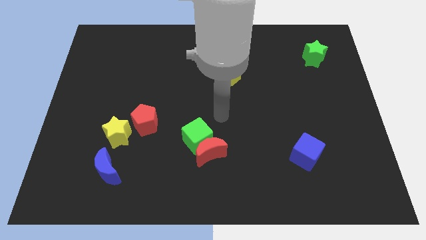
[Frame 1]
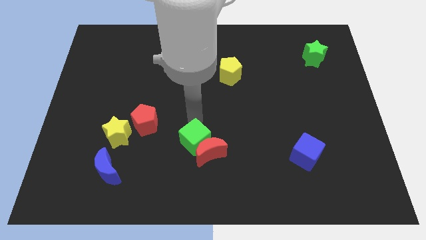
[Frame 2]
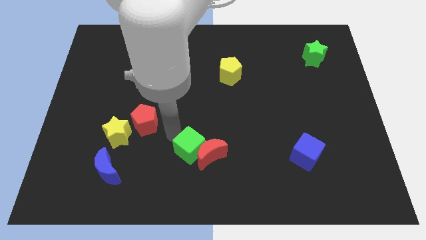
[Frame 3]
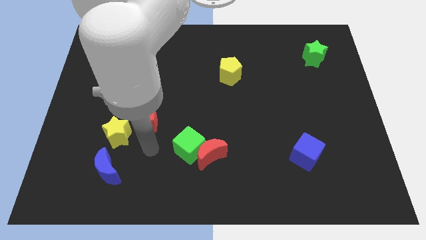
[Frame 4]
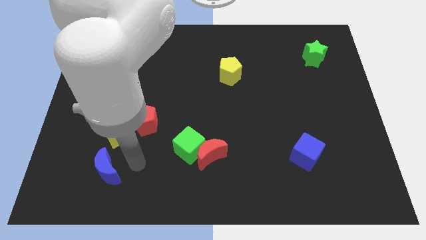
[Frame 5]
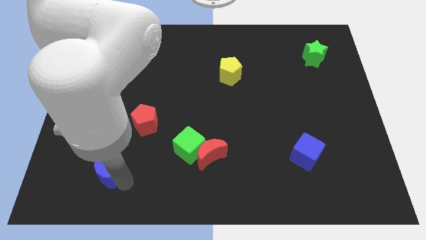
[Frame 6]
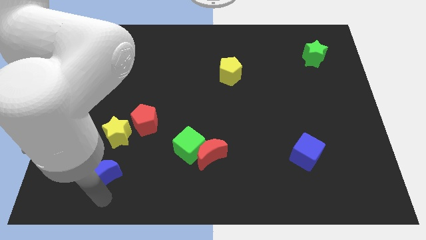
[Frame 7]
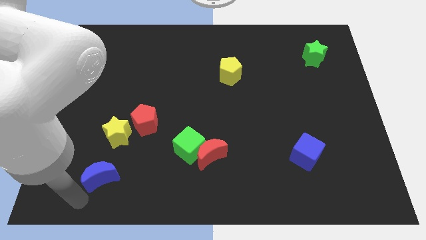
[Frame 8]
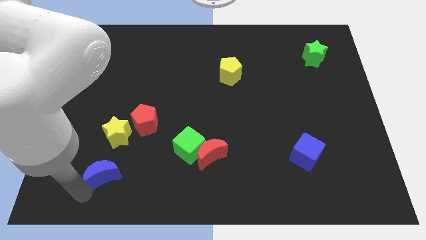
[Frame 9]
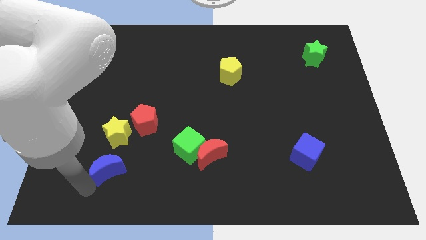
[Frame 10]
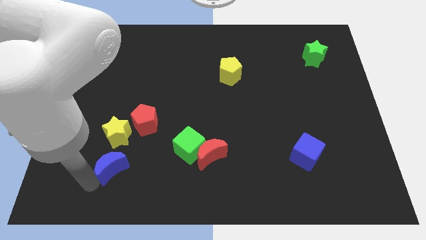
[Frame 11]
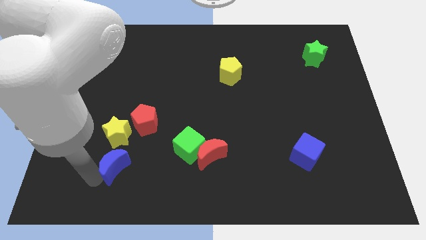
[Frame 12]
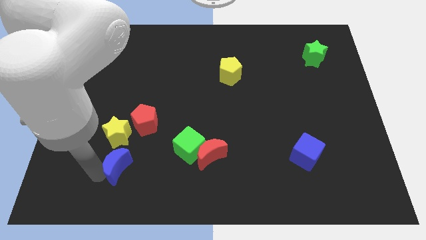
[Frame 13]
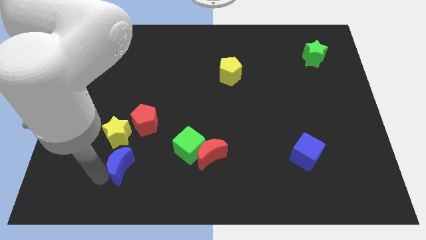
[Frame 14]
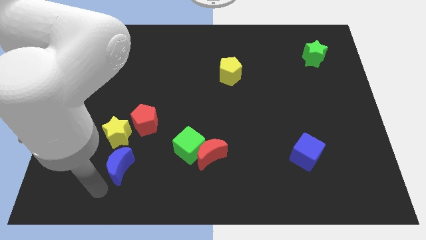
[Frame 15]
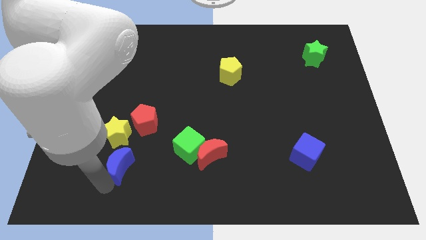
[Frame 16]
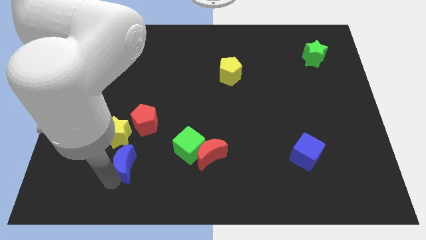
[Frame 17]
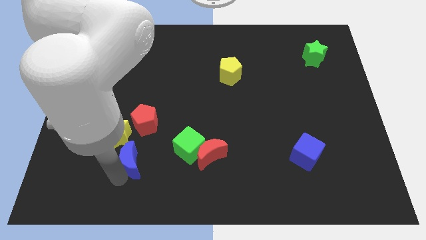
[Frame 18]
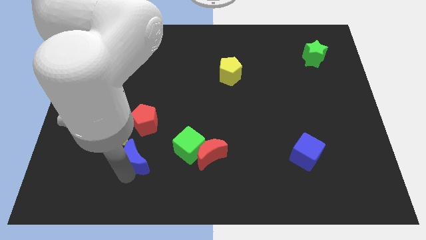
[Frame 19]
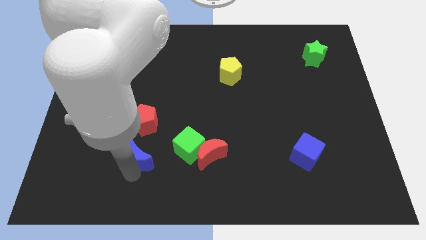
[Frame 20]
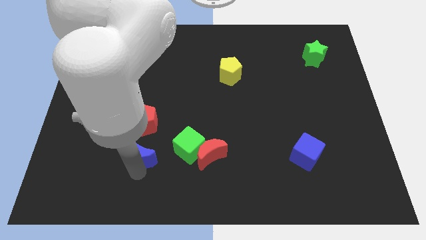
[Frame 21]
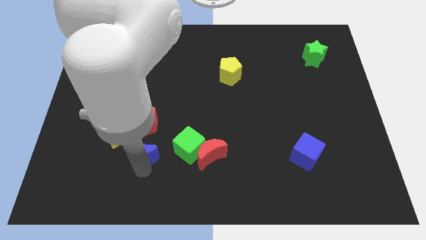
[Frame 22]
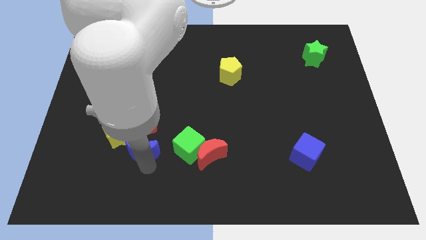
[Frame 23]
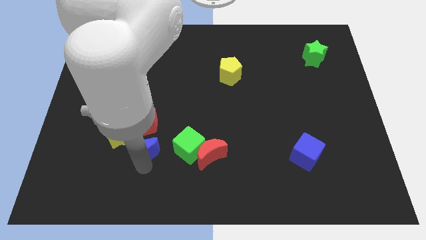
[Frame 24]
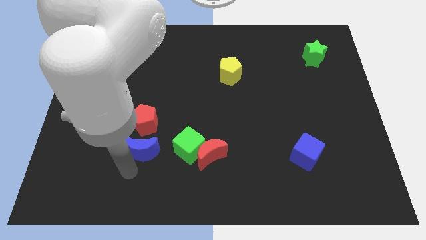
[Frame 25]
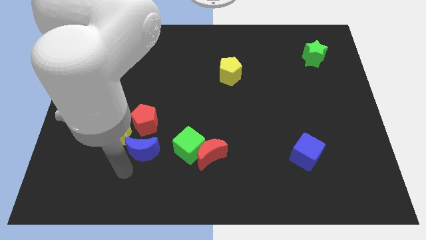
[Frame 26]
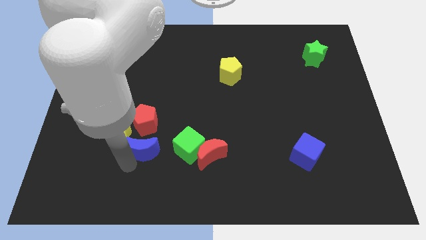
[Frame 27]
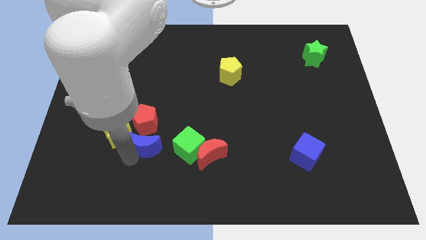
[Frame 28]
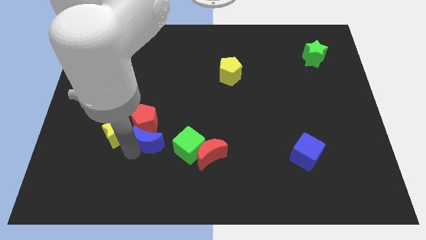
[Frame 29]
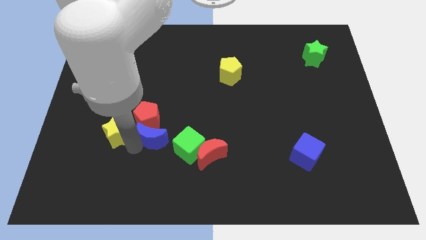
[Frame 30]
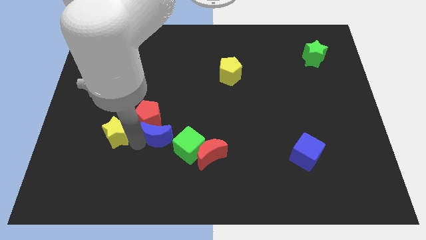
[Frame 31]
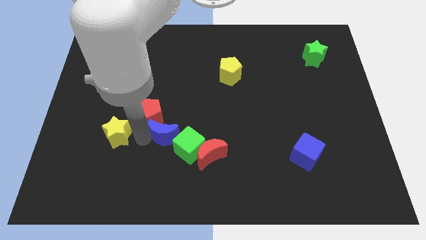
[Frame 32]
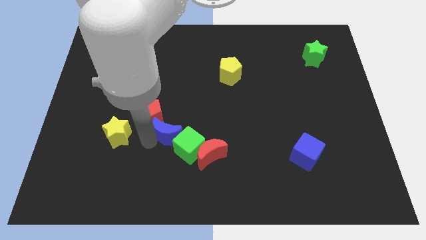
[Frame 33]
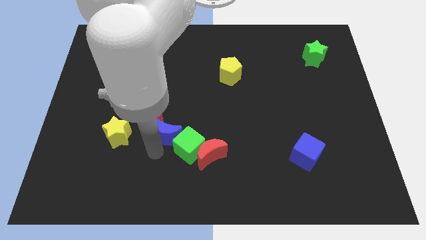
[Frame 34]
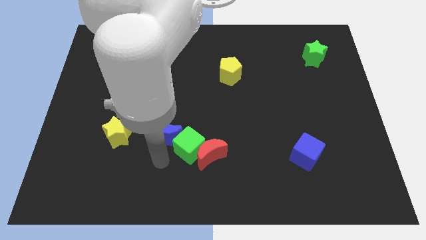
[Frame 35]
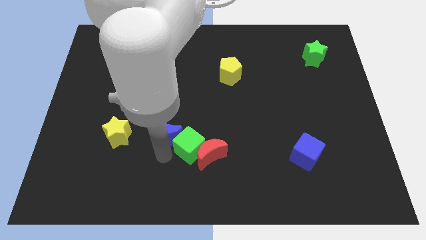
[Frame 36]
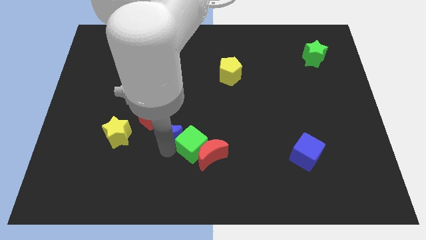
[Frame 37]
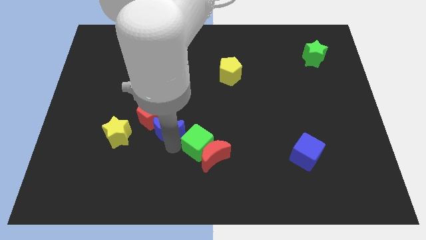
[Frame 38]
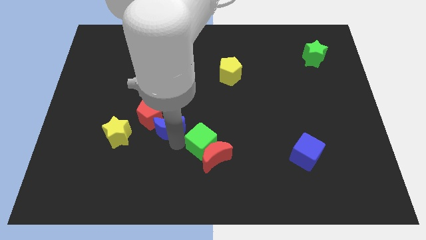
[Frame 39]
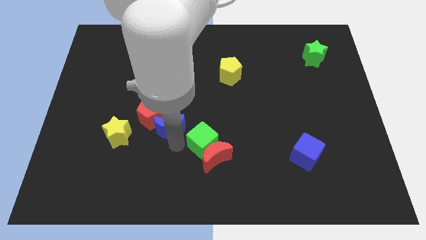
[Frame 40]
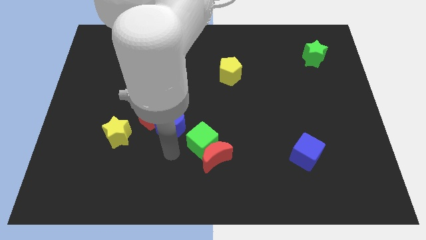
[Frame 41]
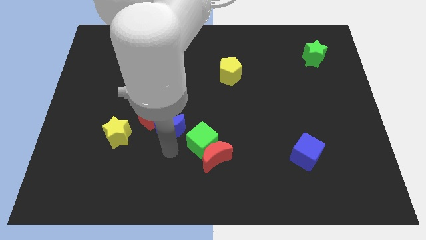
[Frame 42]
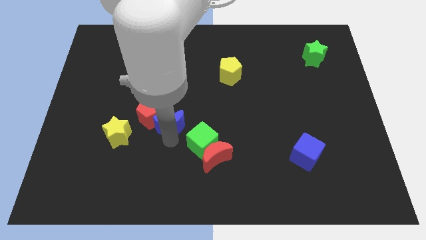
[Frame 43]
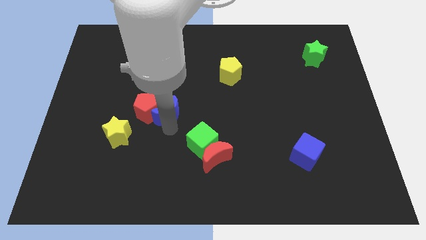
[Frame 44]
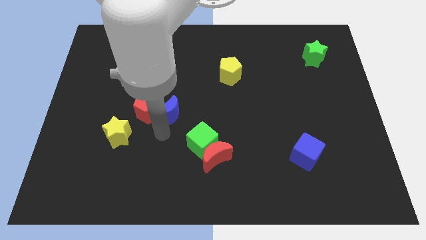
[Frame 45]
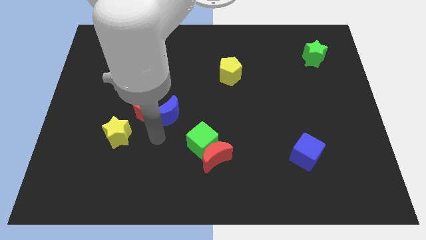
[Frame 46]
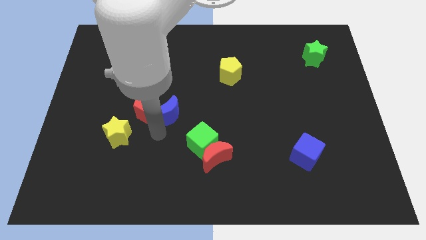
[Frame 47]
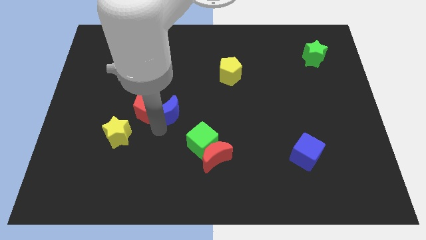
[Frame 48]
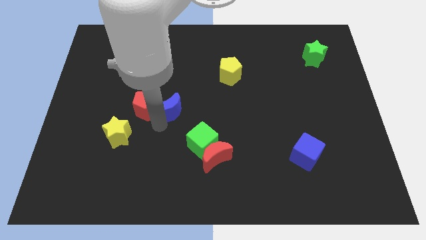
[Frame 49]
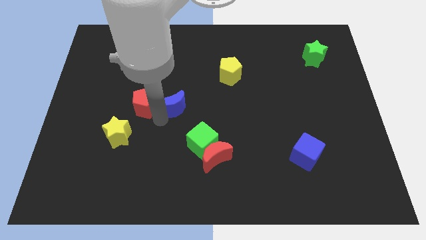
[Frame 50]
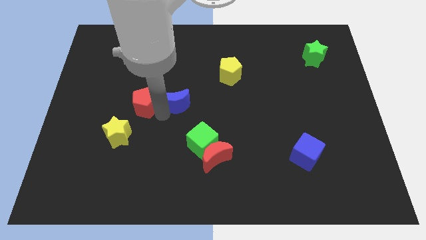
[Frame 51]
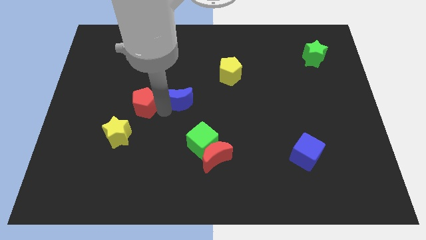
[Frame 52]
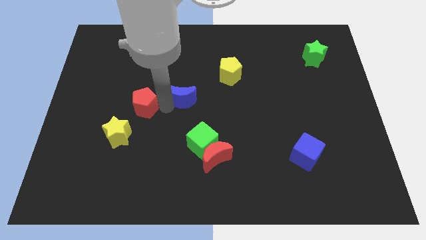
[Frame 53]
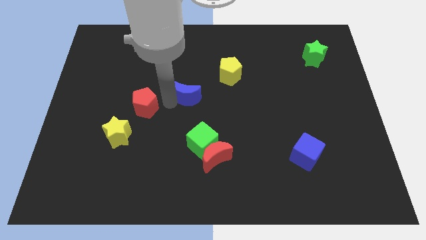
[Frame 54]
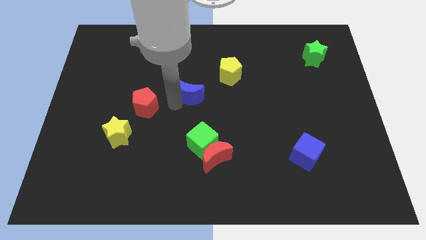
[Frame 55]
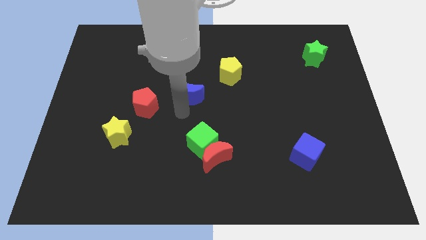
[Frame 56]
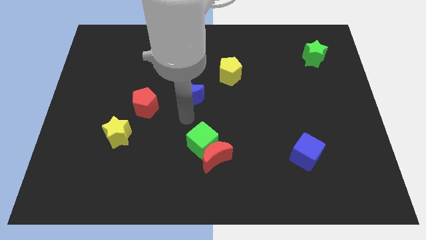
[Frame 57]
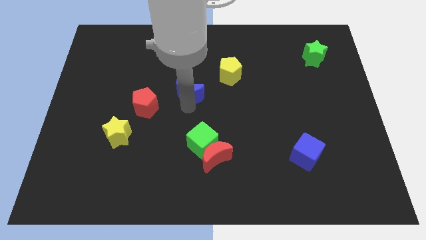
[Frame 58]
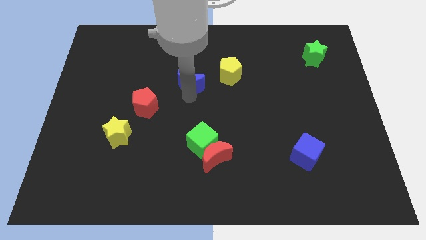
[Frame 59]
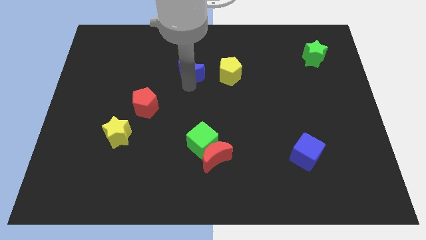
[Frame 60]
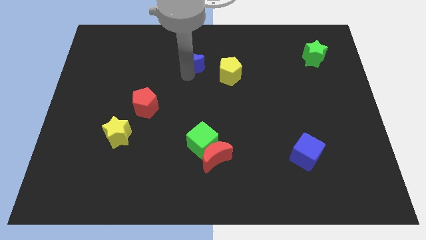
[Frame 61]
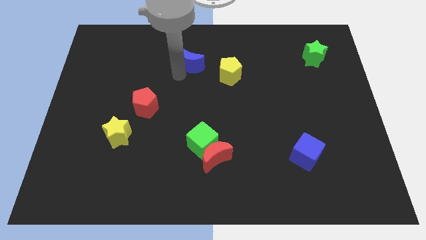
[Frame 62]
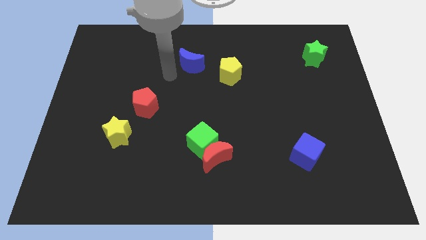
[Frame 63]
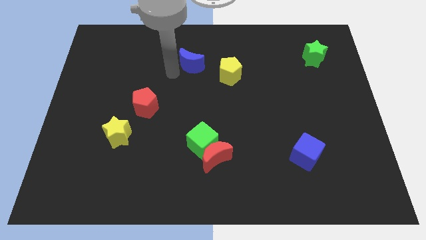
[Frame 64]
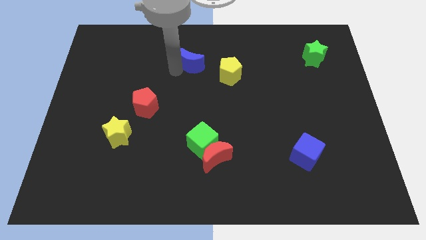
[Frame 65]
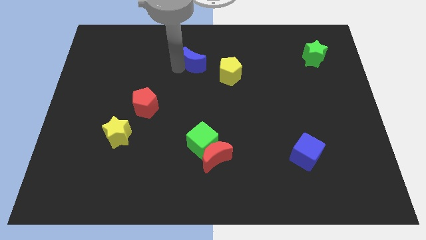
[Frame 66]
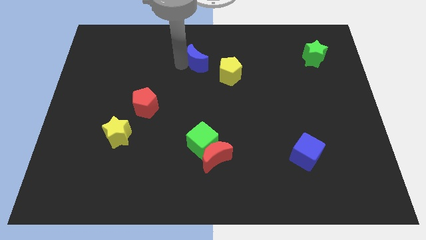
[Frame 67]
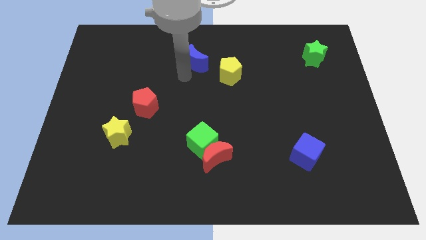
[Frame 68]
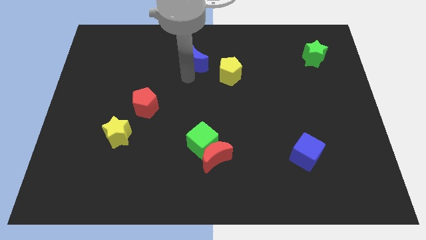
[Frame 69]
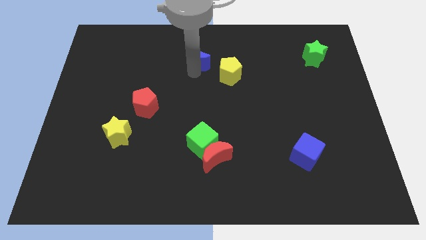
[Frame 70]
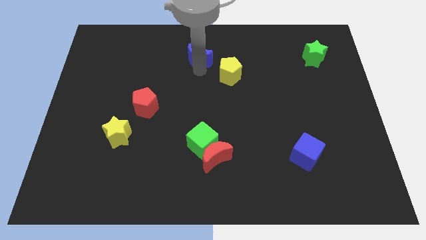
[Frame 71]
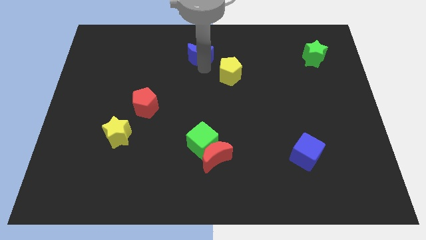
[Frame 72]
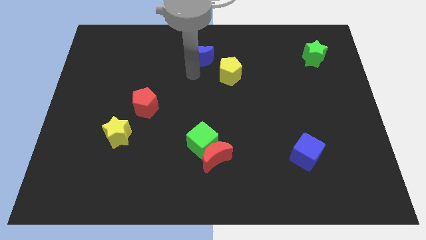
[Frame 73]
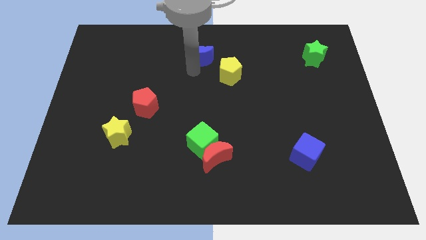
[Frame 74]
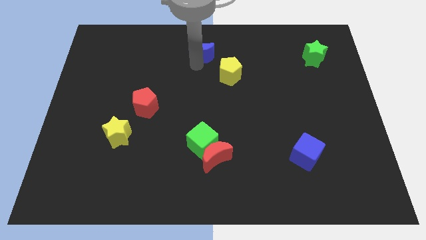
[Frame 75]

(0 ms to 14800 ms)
put the blue moon to the towards your base
